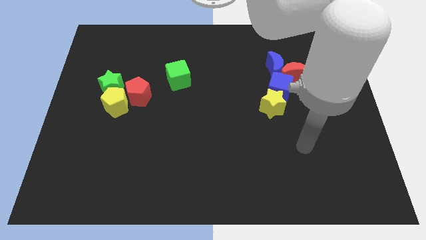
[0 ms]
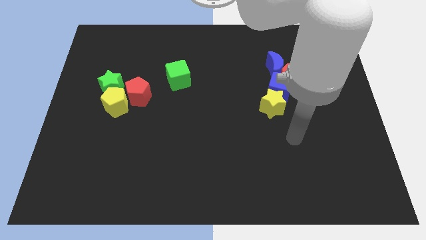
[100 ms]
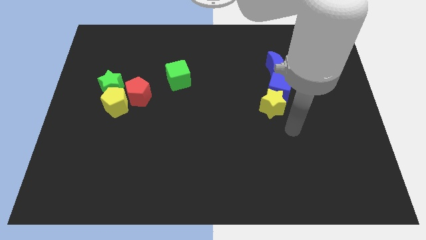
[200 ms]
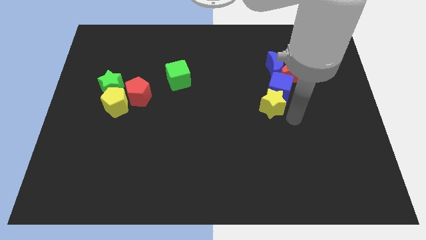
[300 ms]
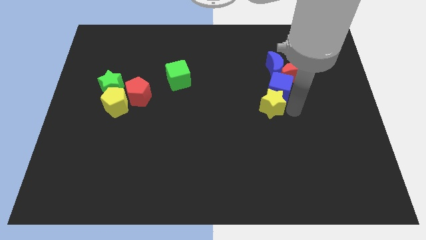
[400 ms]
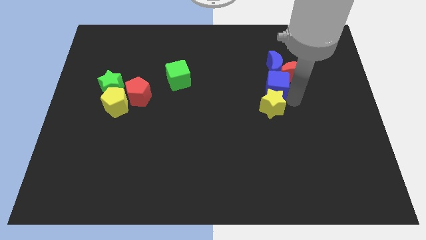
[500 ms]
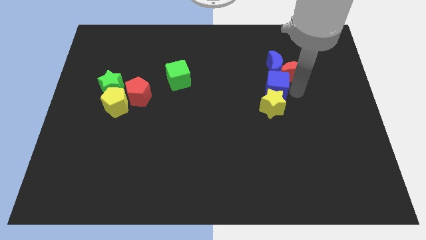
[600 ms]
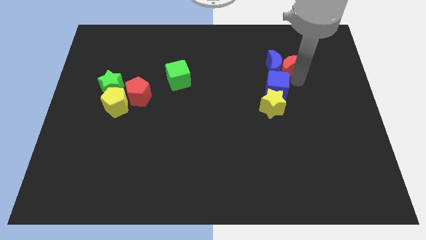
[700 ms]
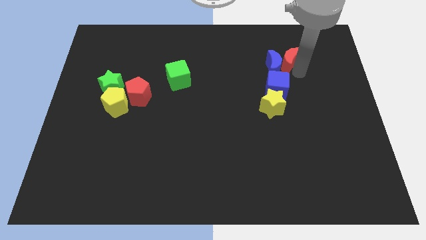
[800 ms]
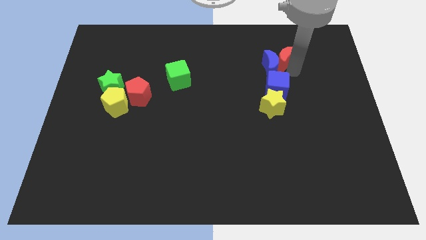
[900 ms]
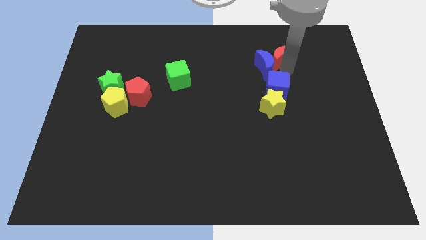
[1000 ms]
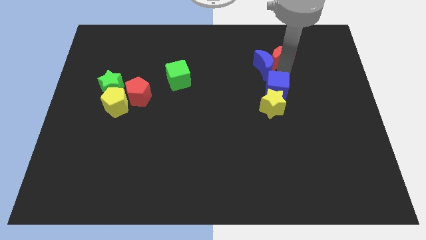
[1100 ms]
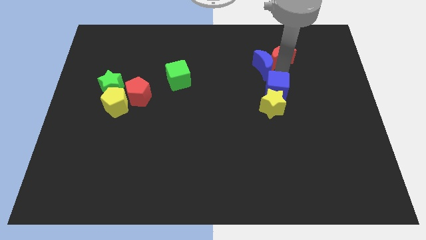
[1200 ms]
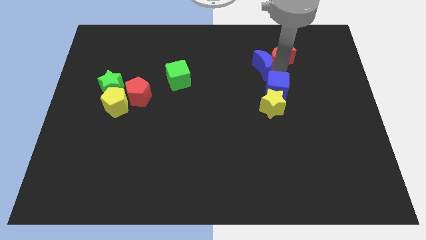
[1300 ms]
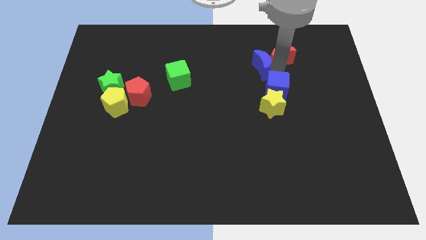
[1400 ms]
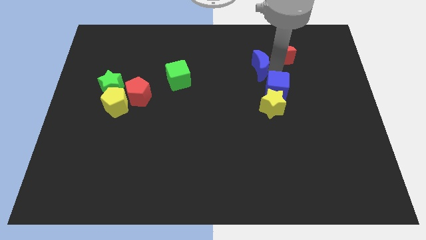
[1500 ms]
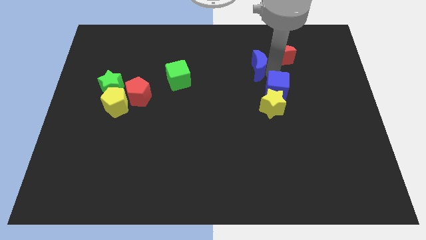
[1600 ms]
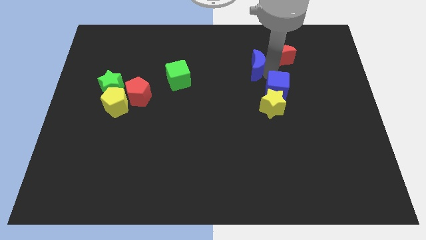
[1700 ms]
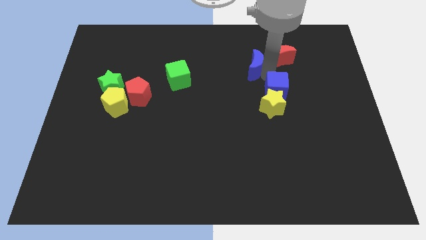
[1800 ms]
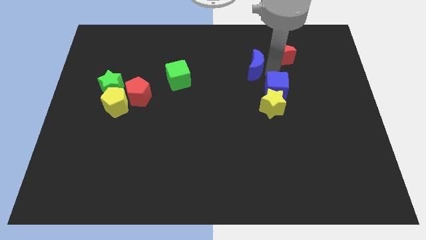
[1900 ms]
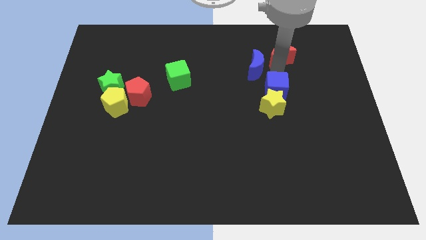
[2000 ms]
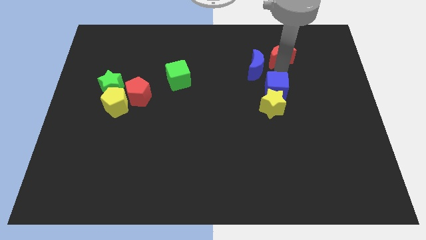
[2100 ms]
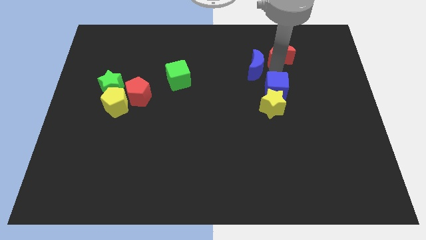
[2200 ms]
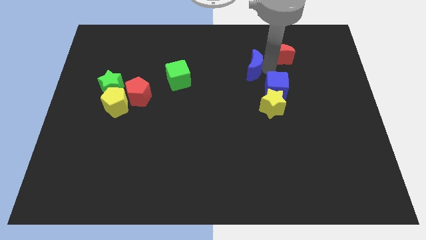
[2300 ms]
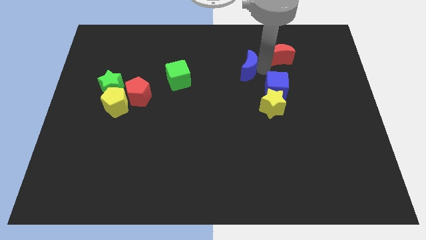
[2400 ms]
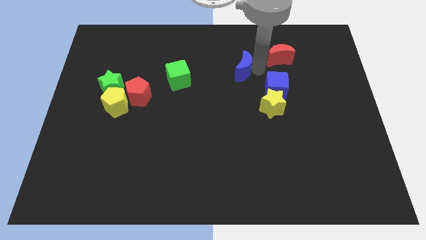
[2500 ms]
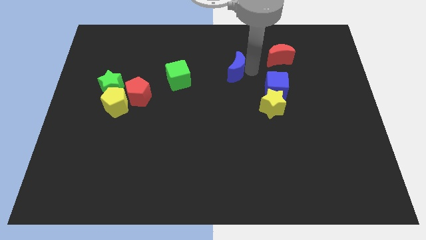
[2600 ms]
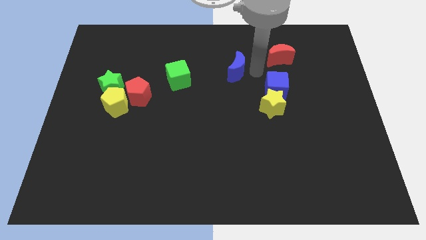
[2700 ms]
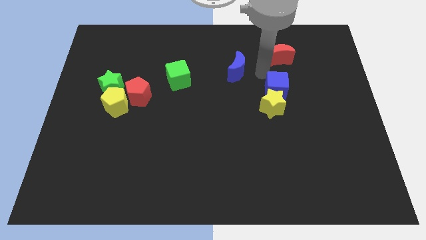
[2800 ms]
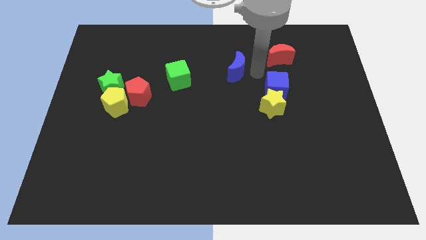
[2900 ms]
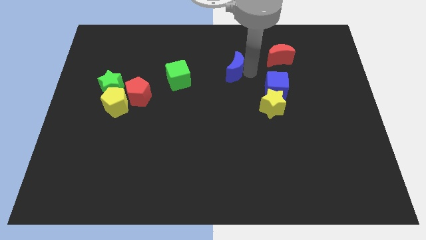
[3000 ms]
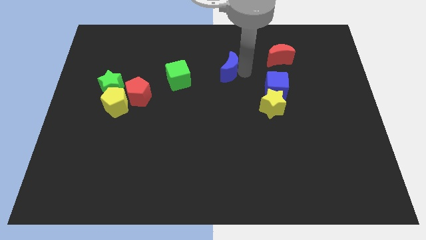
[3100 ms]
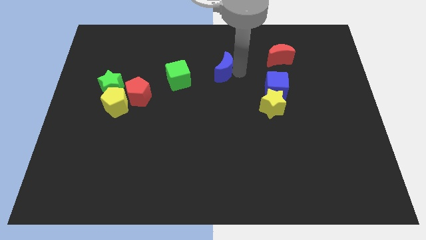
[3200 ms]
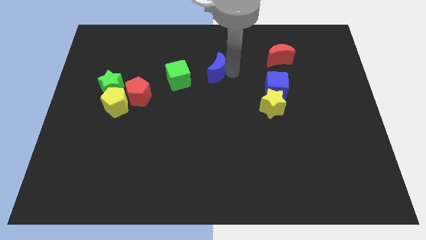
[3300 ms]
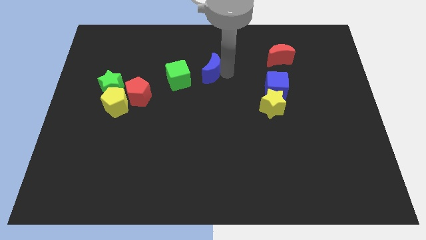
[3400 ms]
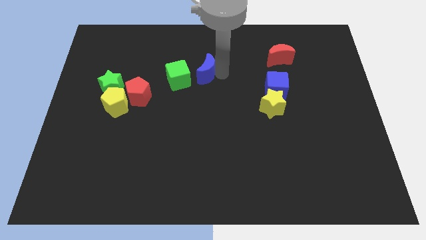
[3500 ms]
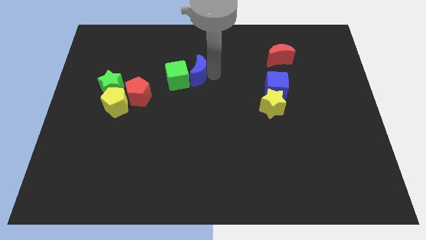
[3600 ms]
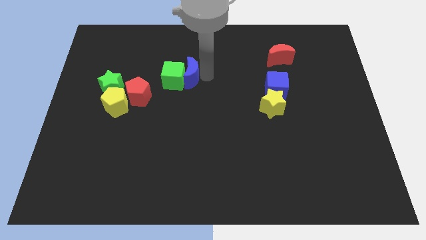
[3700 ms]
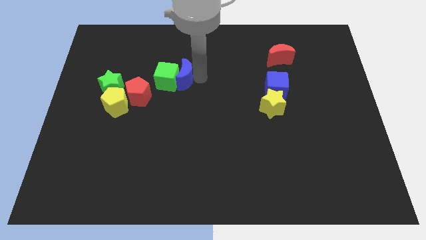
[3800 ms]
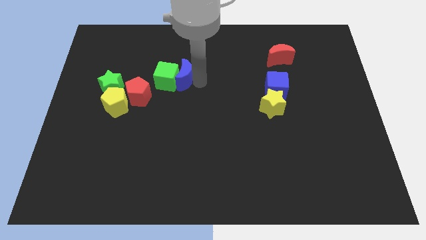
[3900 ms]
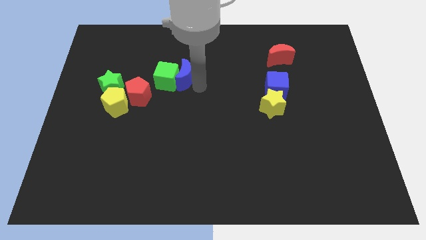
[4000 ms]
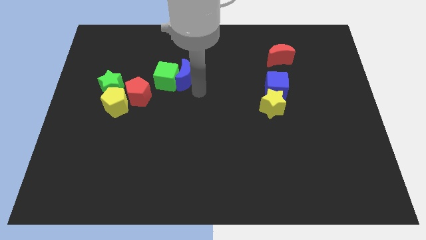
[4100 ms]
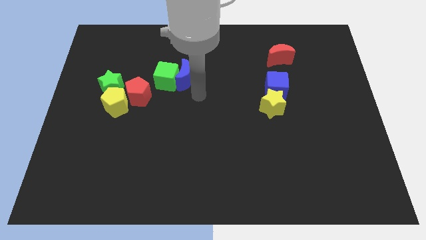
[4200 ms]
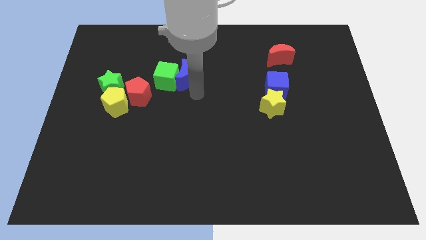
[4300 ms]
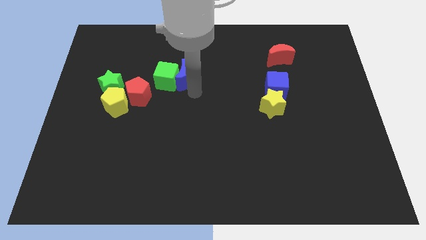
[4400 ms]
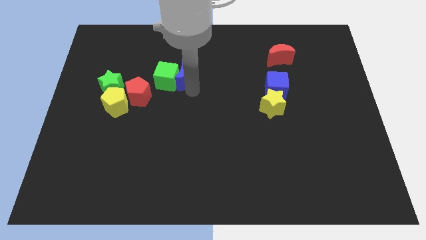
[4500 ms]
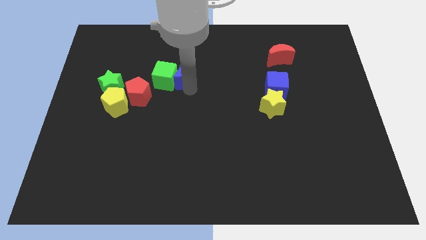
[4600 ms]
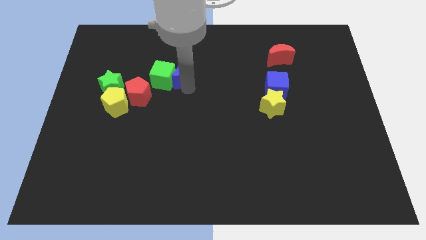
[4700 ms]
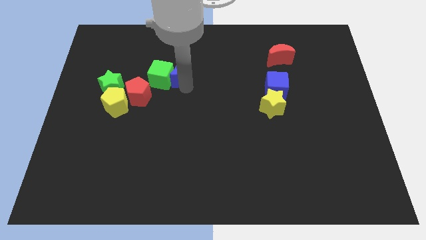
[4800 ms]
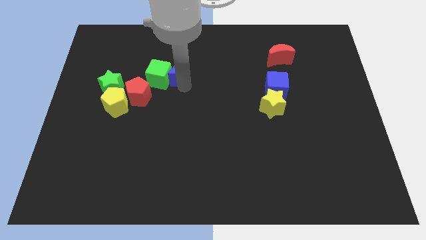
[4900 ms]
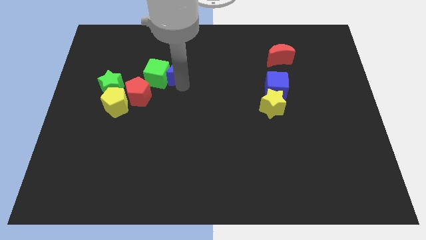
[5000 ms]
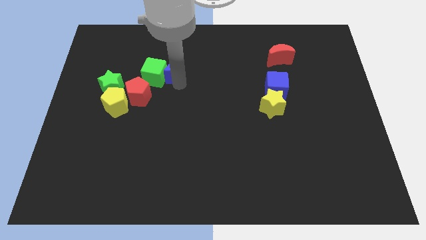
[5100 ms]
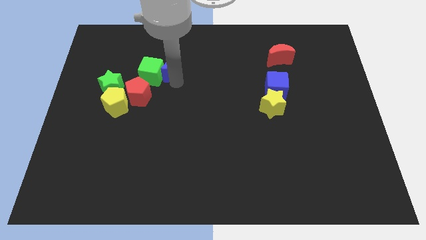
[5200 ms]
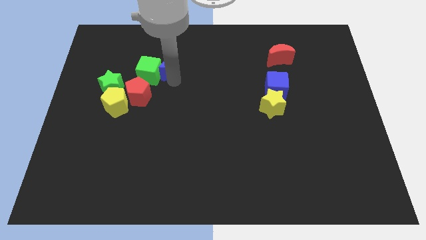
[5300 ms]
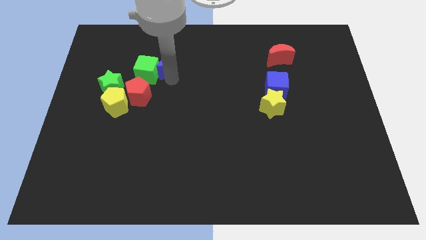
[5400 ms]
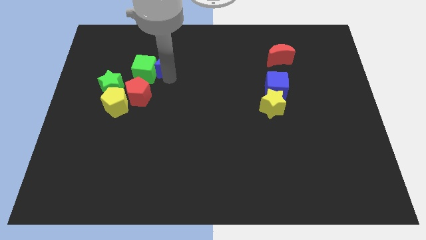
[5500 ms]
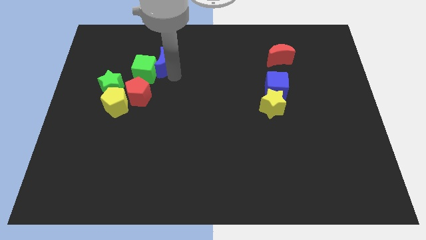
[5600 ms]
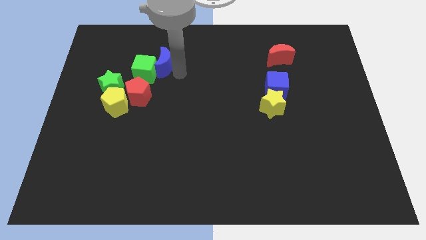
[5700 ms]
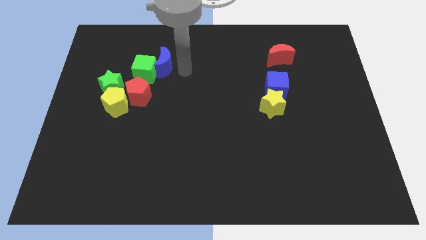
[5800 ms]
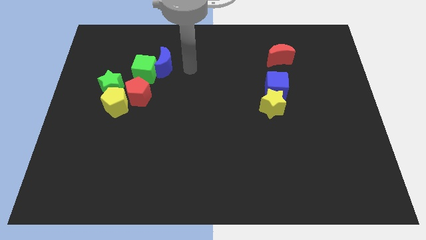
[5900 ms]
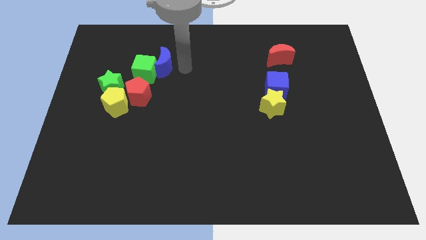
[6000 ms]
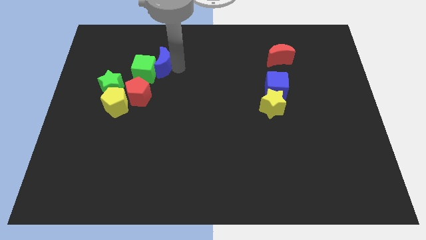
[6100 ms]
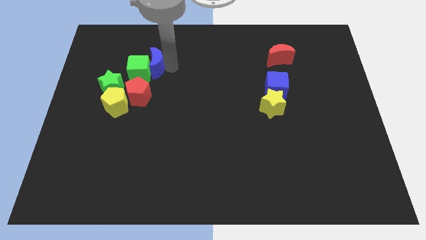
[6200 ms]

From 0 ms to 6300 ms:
push the blue moon above the red pentagon

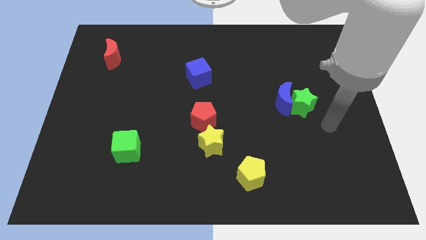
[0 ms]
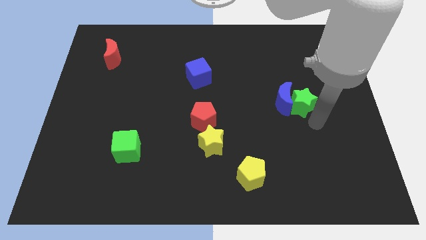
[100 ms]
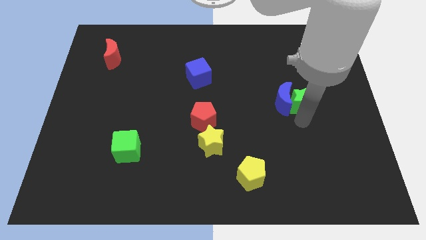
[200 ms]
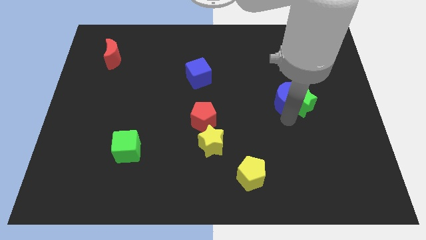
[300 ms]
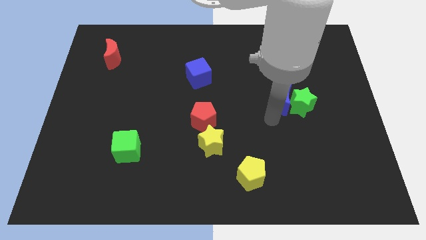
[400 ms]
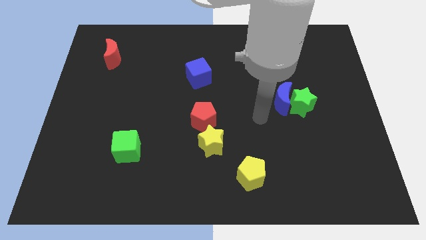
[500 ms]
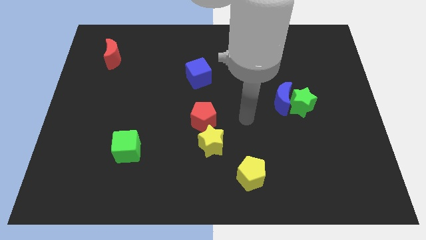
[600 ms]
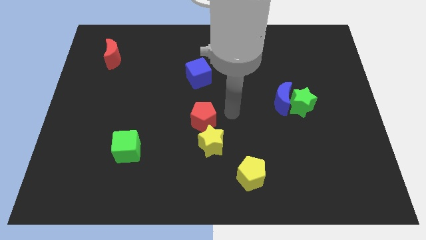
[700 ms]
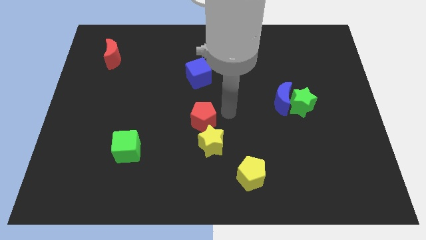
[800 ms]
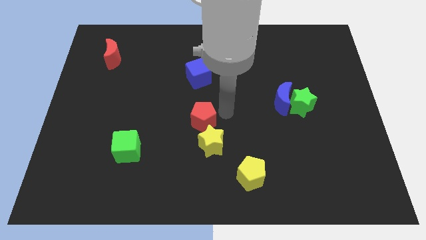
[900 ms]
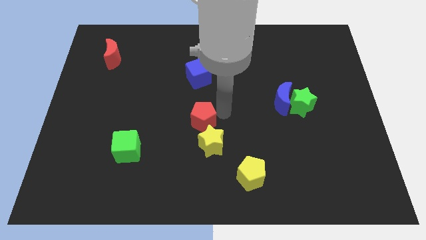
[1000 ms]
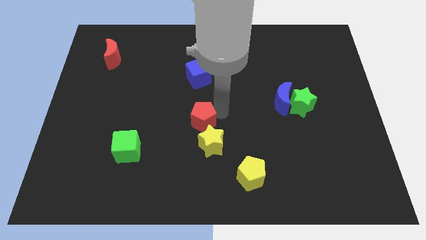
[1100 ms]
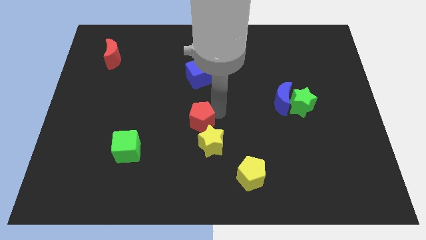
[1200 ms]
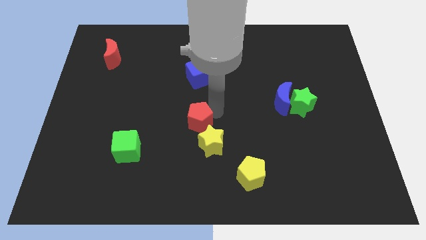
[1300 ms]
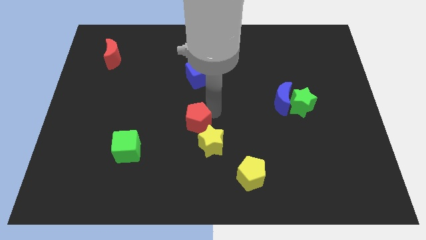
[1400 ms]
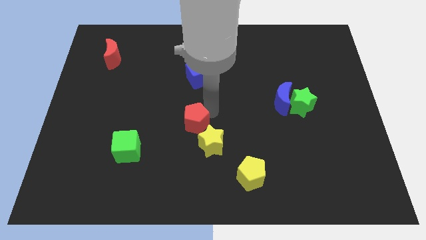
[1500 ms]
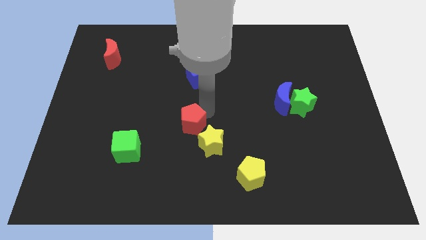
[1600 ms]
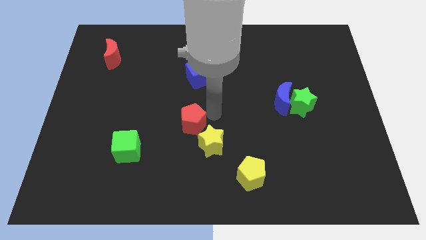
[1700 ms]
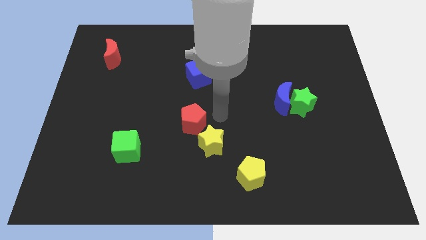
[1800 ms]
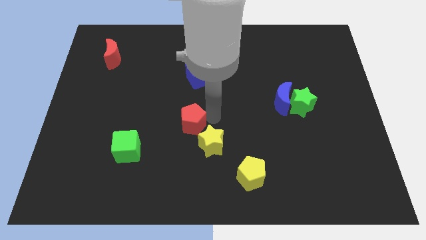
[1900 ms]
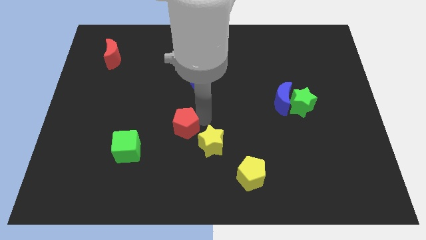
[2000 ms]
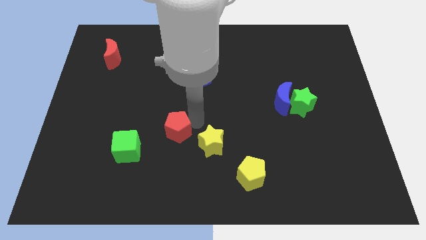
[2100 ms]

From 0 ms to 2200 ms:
put the red pentagon to the top right of the green cube
